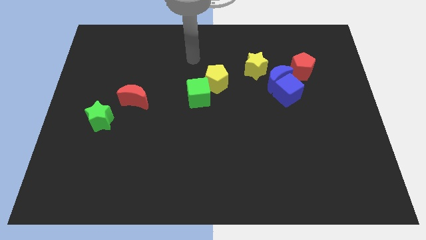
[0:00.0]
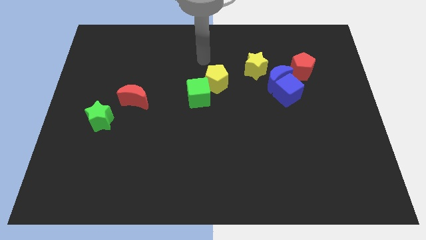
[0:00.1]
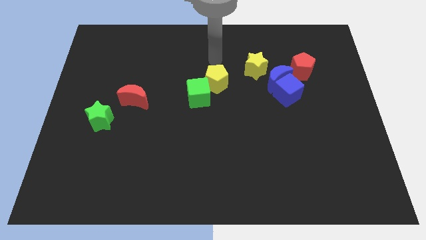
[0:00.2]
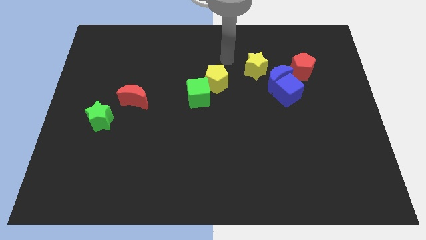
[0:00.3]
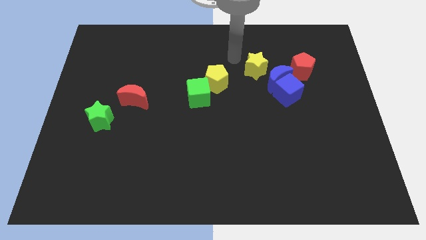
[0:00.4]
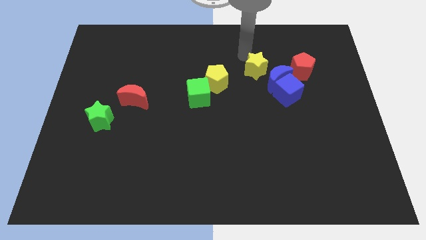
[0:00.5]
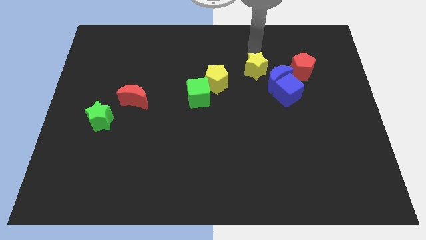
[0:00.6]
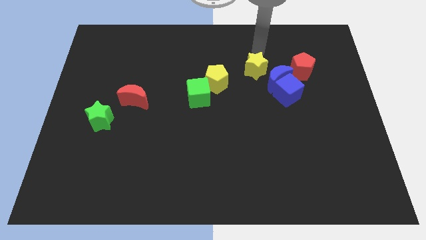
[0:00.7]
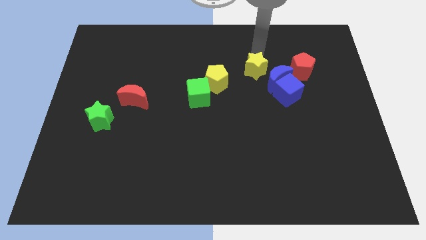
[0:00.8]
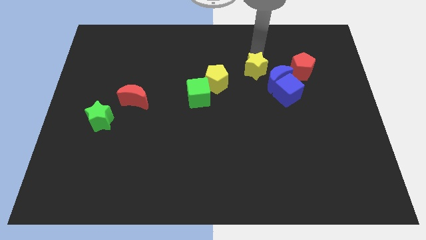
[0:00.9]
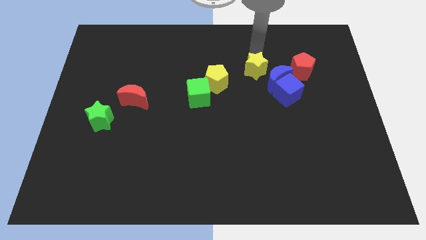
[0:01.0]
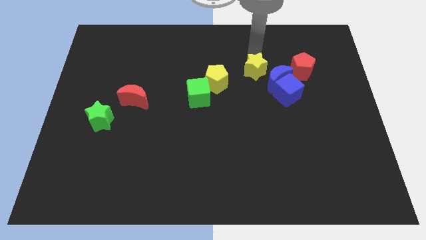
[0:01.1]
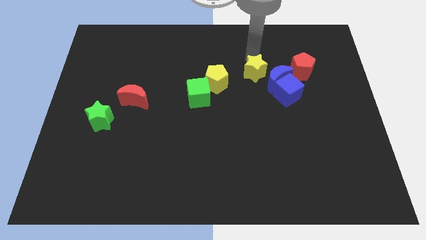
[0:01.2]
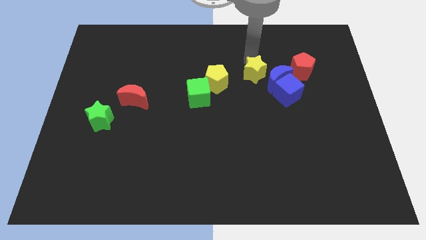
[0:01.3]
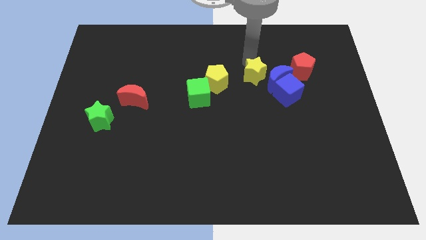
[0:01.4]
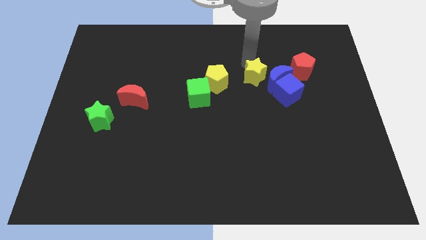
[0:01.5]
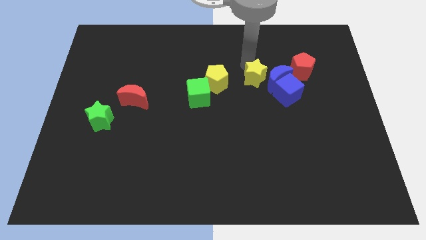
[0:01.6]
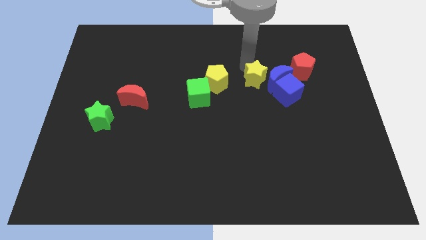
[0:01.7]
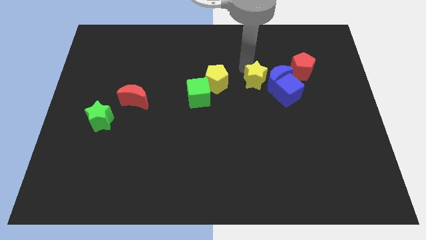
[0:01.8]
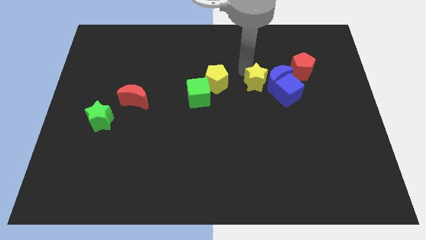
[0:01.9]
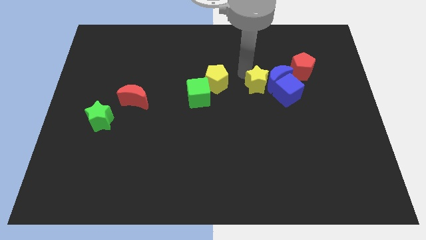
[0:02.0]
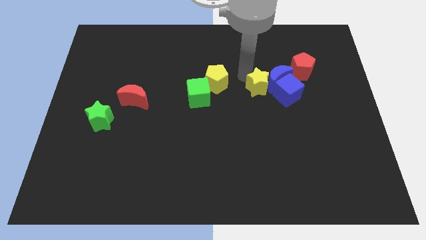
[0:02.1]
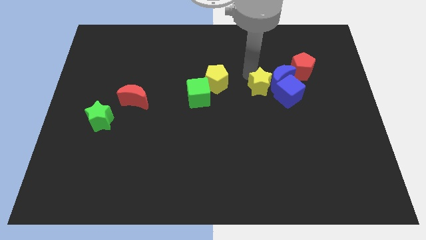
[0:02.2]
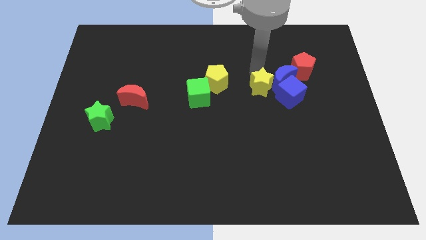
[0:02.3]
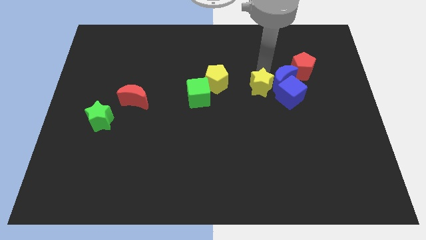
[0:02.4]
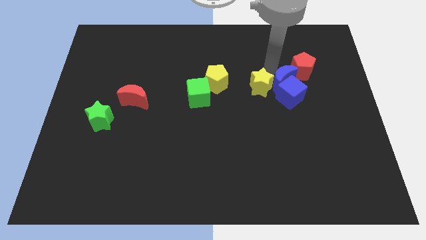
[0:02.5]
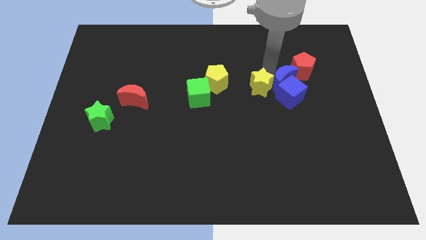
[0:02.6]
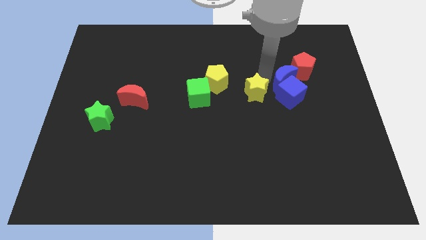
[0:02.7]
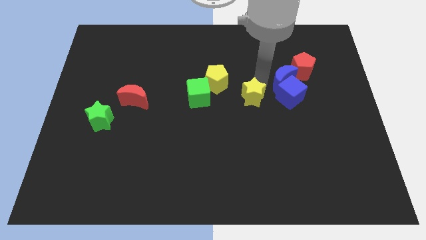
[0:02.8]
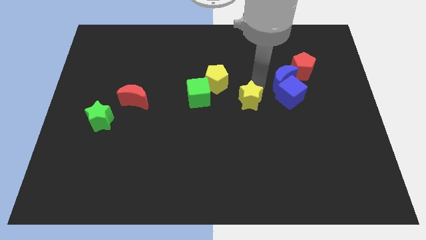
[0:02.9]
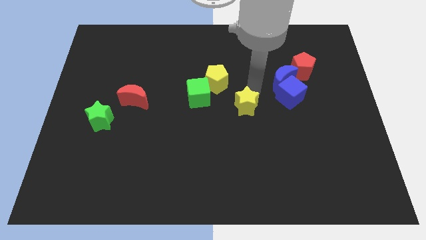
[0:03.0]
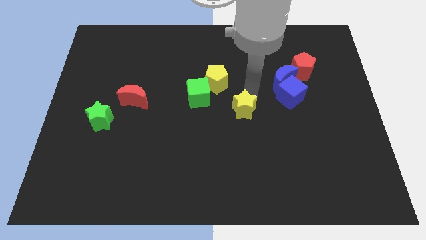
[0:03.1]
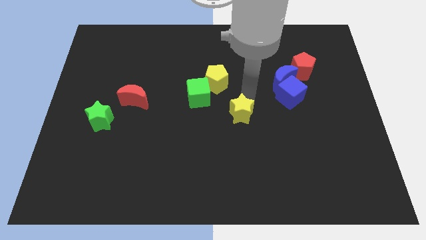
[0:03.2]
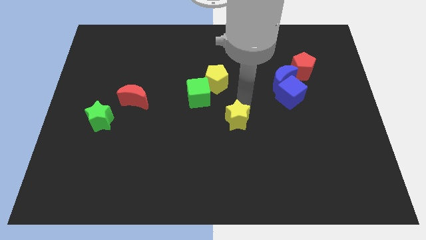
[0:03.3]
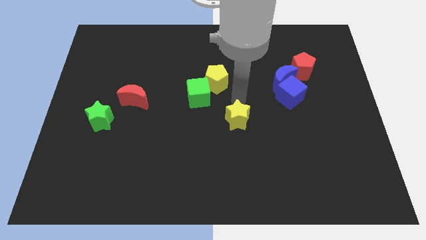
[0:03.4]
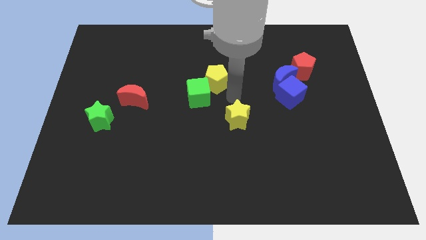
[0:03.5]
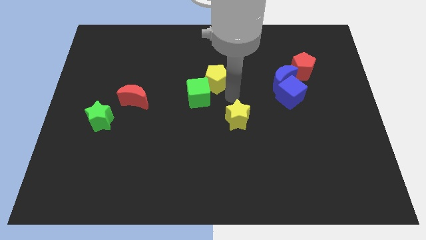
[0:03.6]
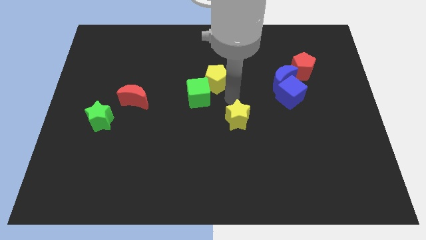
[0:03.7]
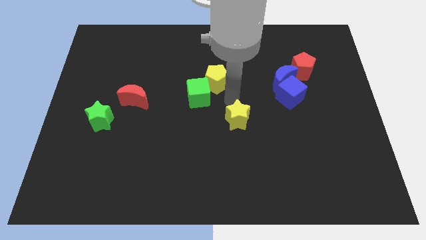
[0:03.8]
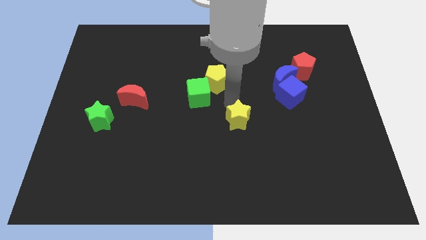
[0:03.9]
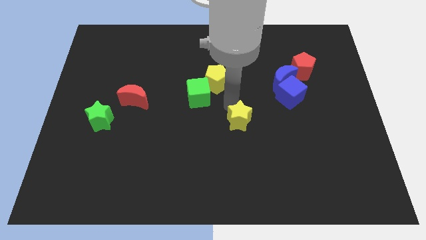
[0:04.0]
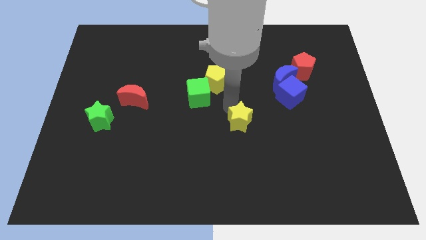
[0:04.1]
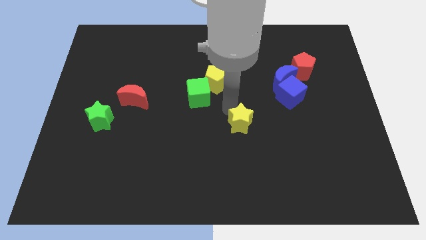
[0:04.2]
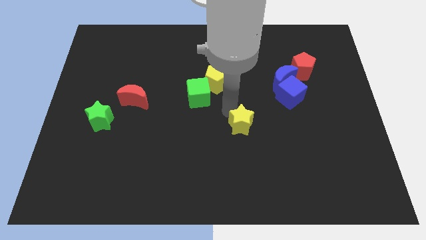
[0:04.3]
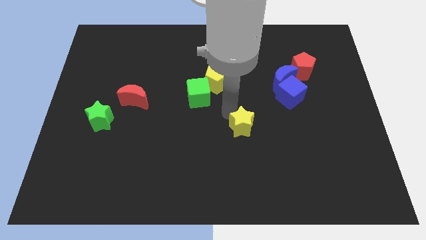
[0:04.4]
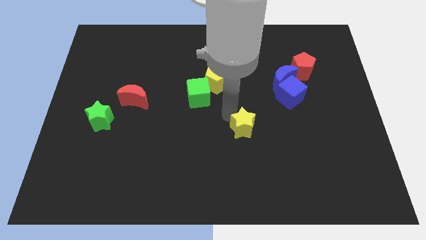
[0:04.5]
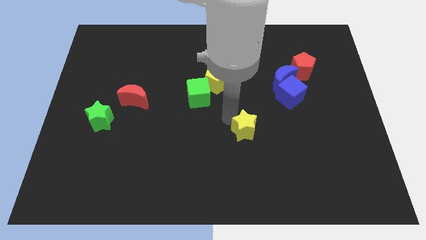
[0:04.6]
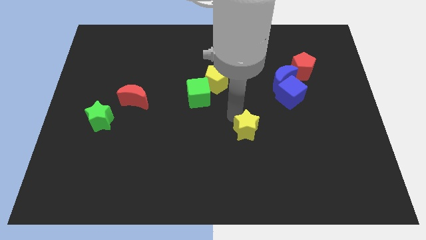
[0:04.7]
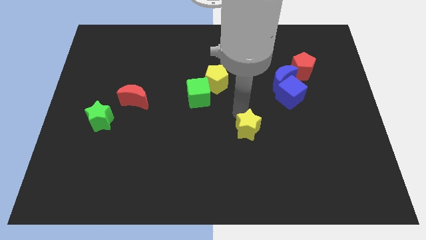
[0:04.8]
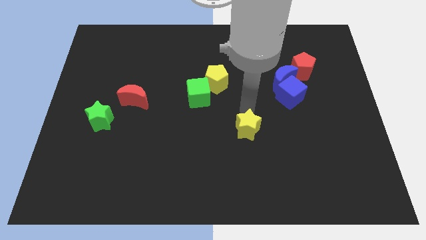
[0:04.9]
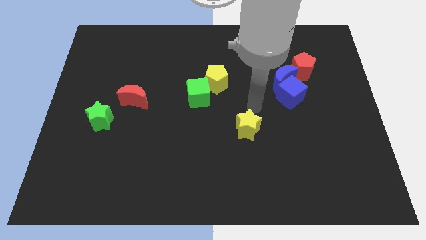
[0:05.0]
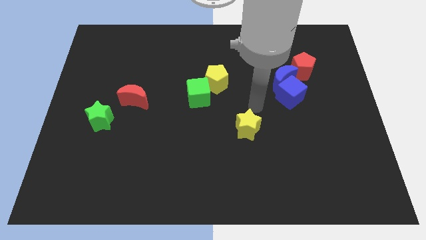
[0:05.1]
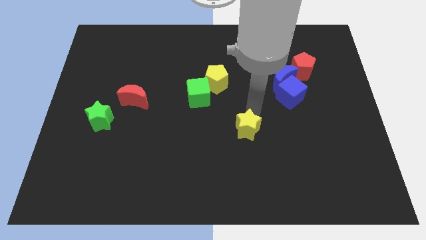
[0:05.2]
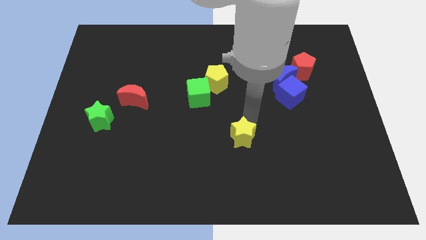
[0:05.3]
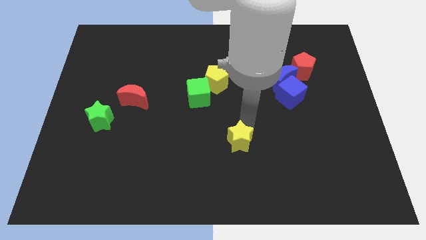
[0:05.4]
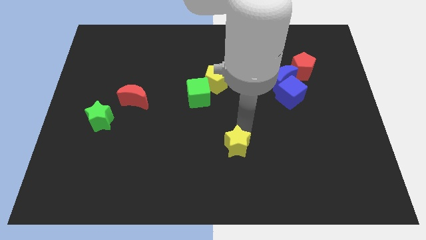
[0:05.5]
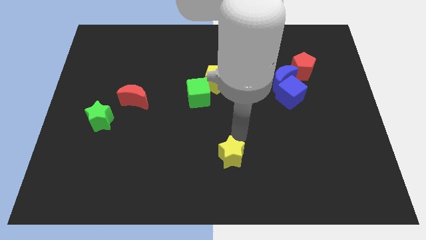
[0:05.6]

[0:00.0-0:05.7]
put the yellow star to the bottom

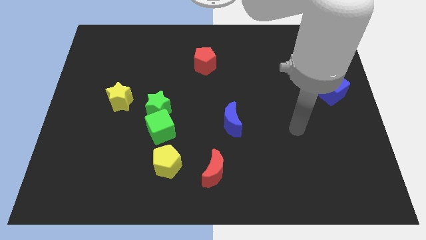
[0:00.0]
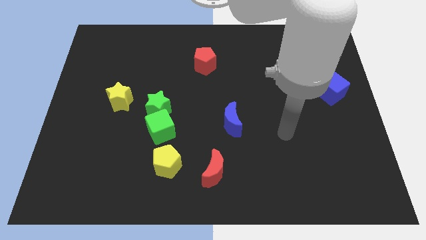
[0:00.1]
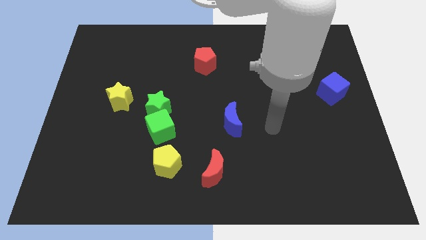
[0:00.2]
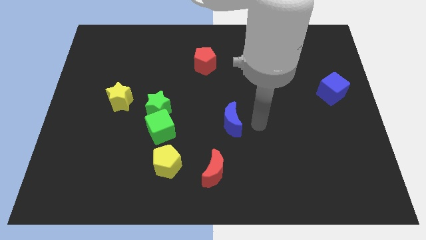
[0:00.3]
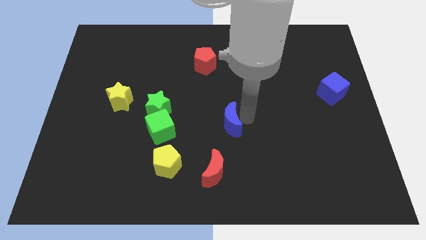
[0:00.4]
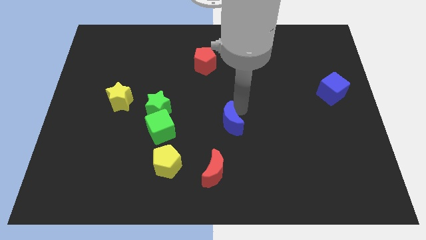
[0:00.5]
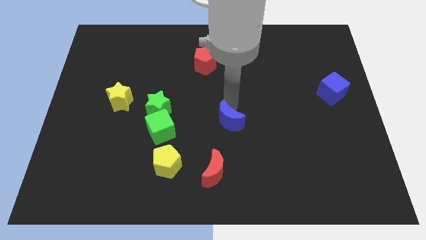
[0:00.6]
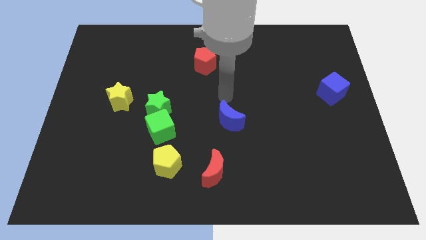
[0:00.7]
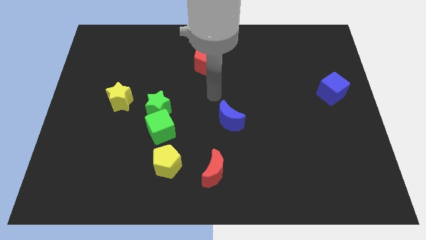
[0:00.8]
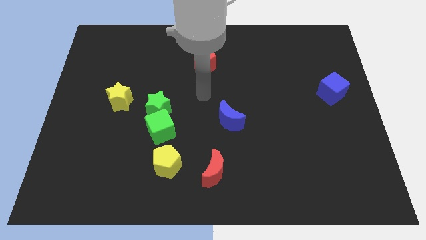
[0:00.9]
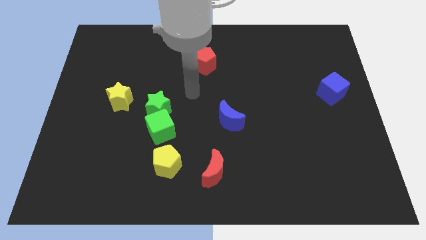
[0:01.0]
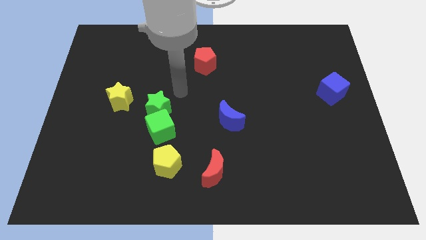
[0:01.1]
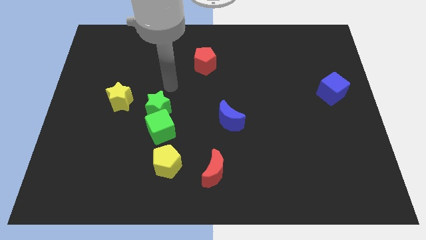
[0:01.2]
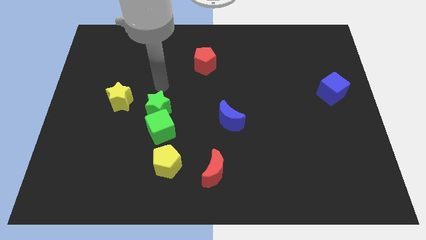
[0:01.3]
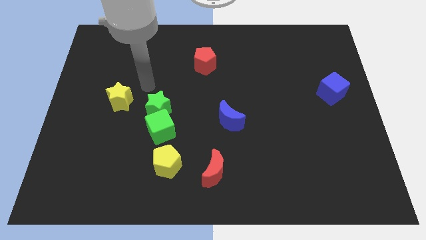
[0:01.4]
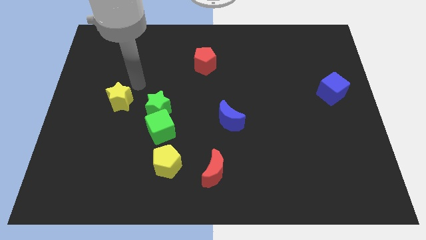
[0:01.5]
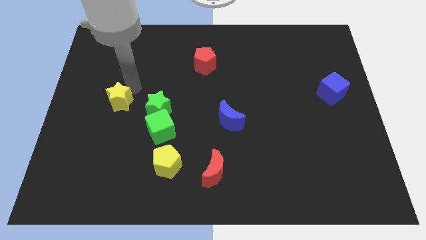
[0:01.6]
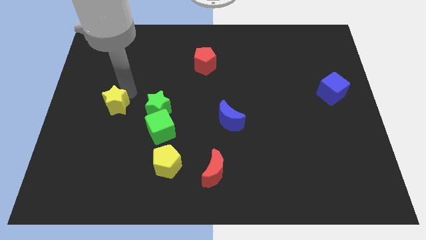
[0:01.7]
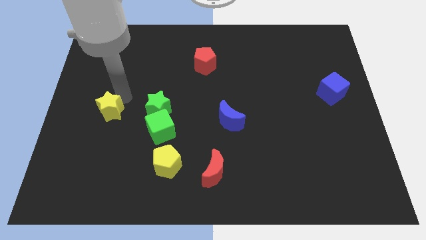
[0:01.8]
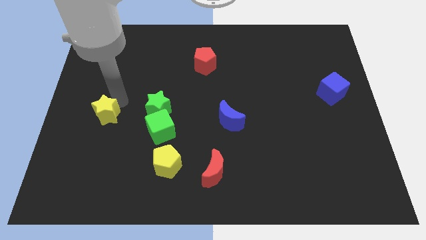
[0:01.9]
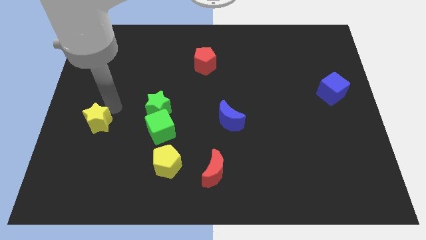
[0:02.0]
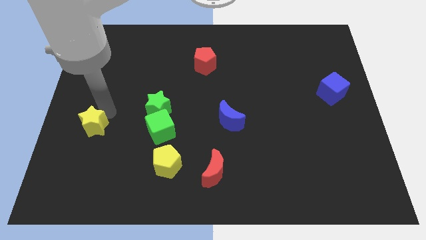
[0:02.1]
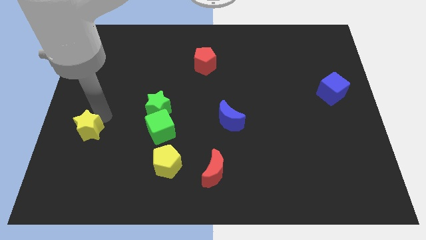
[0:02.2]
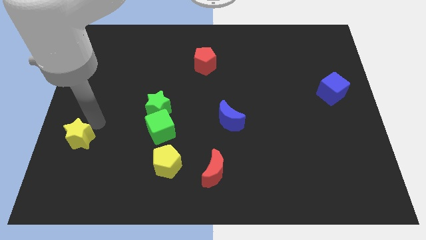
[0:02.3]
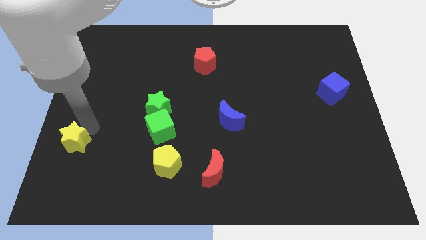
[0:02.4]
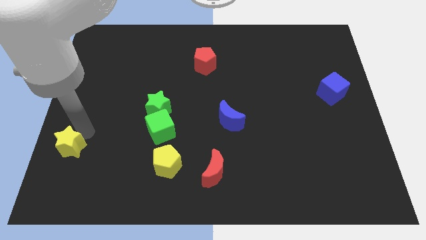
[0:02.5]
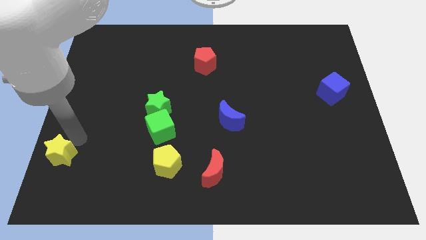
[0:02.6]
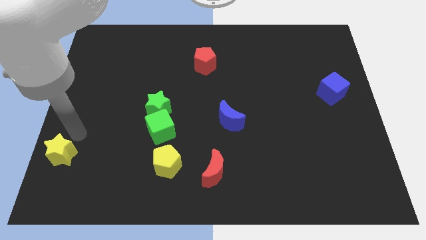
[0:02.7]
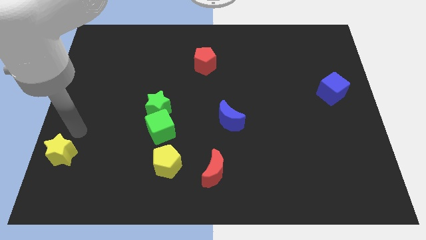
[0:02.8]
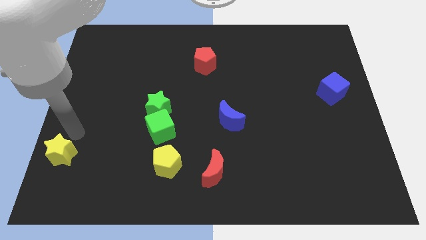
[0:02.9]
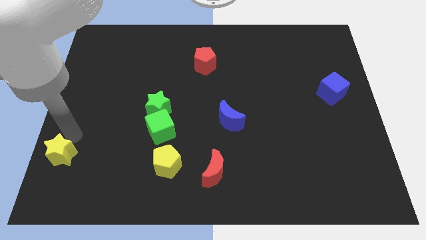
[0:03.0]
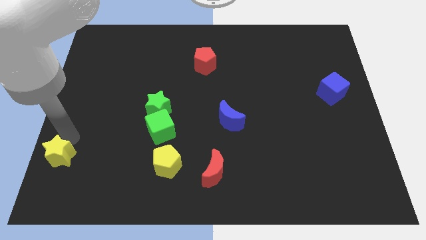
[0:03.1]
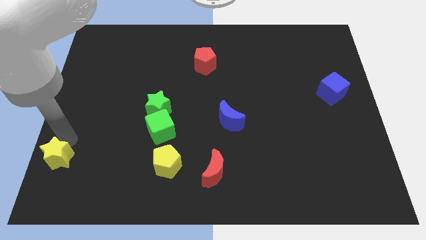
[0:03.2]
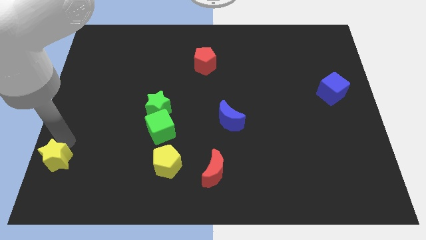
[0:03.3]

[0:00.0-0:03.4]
push the yellow star to the bottom left corner
